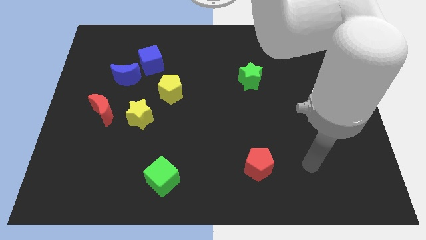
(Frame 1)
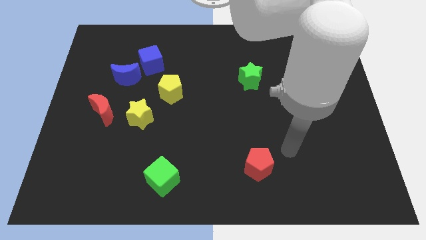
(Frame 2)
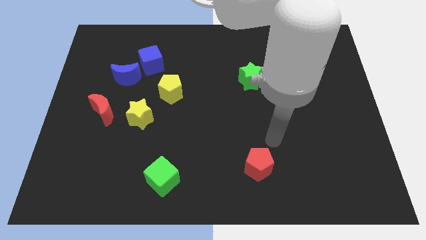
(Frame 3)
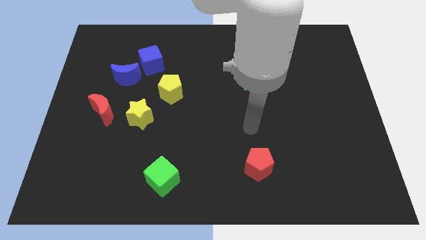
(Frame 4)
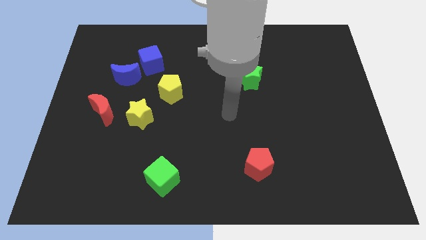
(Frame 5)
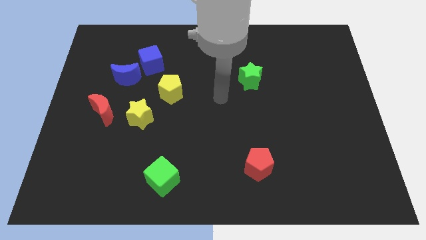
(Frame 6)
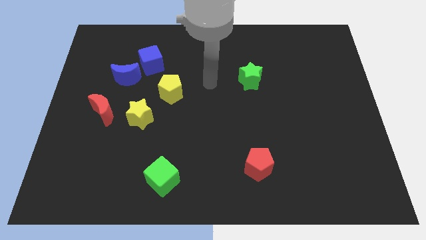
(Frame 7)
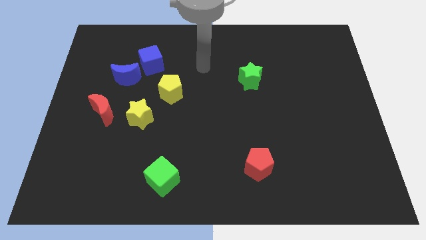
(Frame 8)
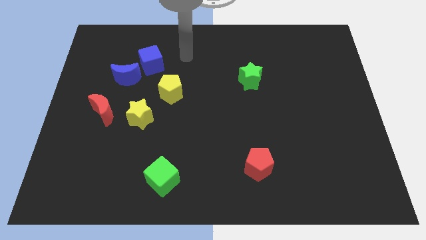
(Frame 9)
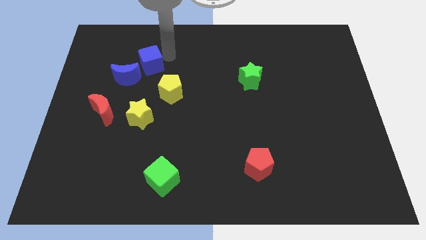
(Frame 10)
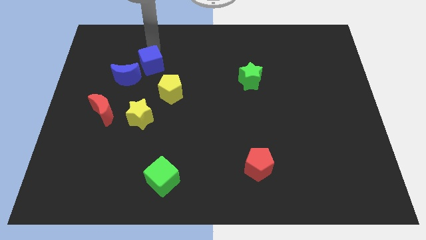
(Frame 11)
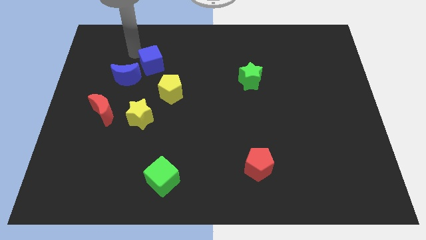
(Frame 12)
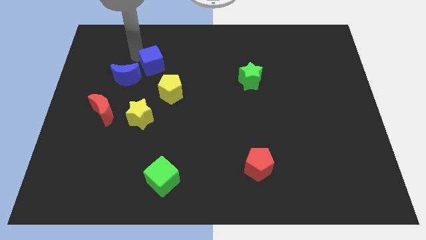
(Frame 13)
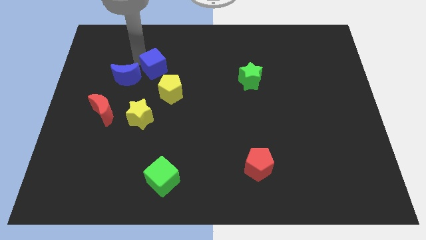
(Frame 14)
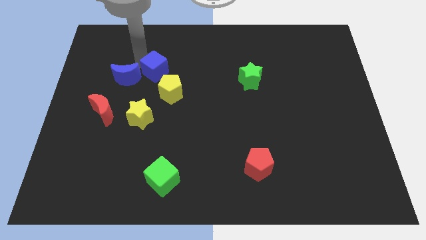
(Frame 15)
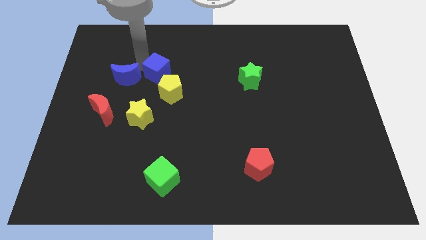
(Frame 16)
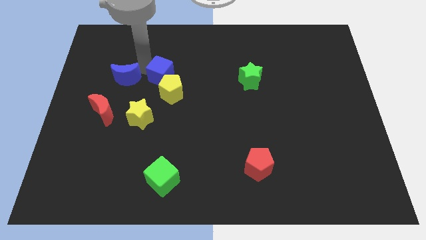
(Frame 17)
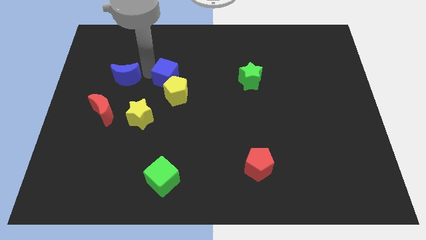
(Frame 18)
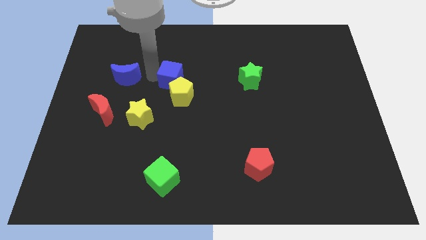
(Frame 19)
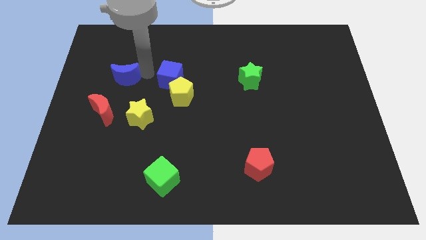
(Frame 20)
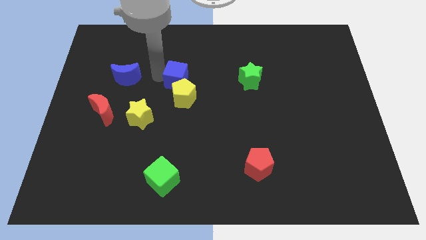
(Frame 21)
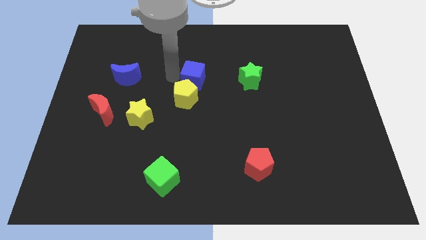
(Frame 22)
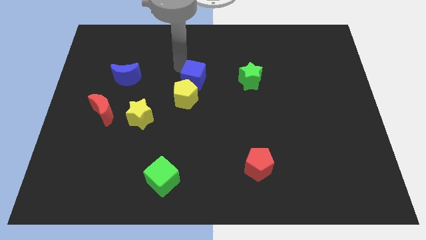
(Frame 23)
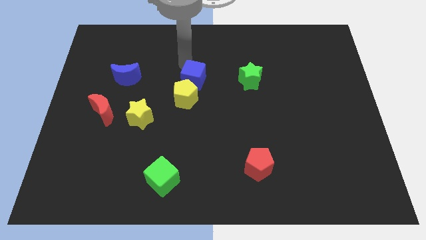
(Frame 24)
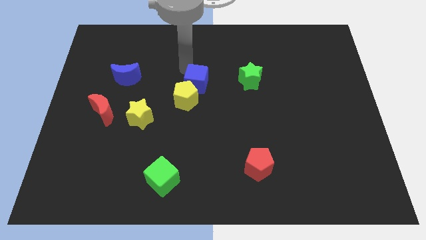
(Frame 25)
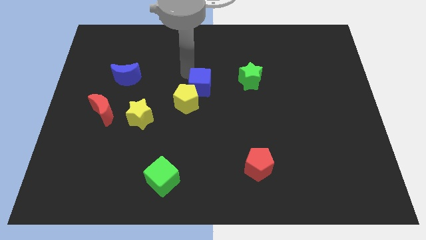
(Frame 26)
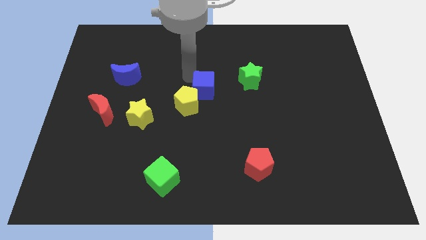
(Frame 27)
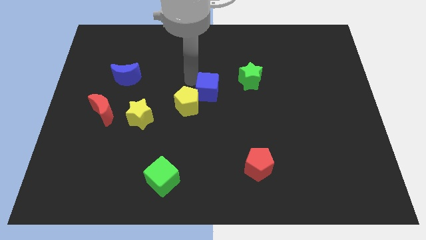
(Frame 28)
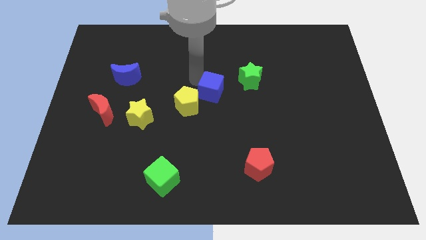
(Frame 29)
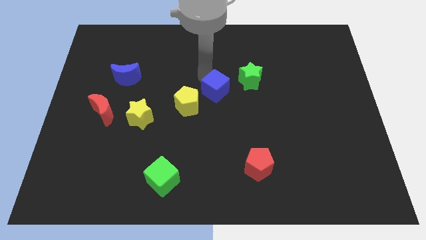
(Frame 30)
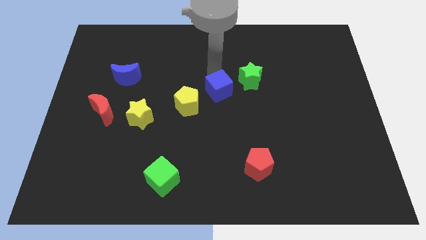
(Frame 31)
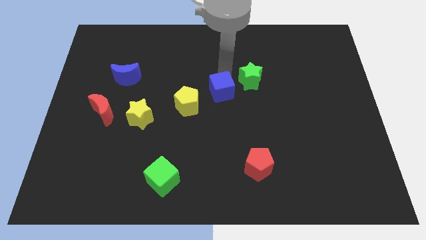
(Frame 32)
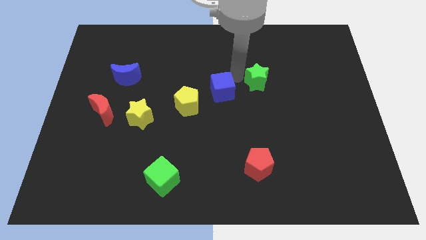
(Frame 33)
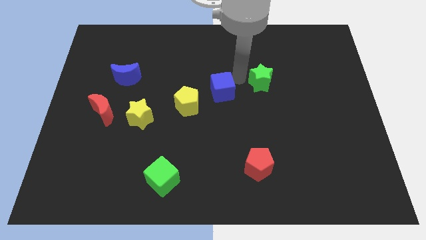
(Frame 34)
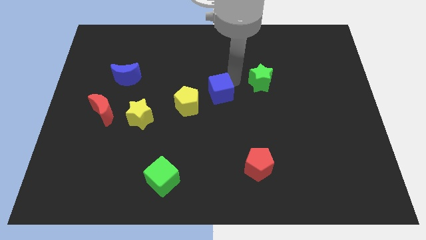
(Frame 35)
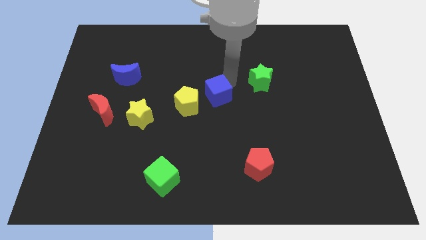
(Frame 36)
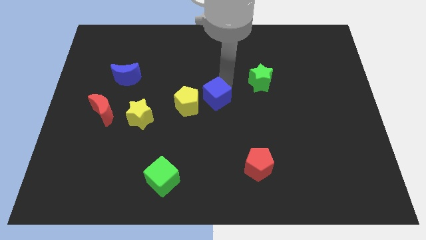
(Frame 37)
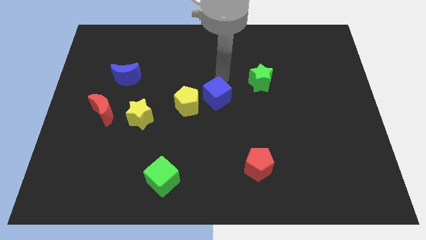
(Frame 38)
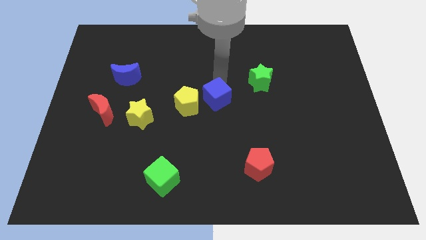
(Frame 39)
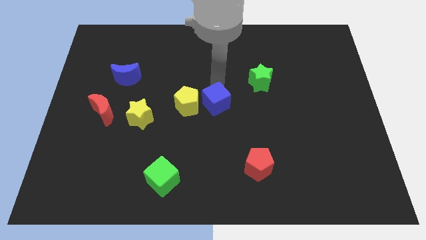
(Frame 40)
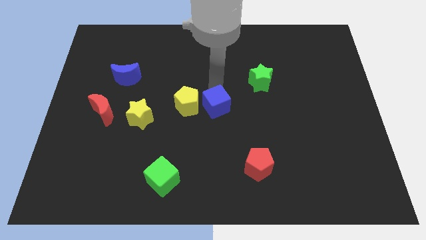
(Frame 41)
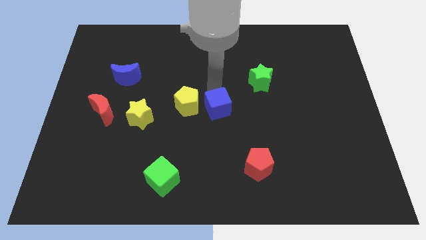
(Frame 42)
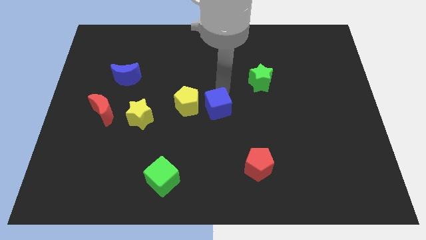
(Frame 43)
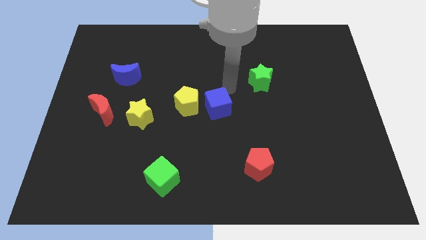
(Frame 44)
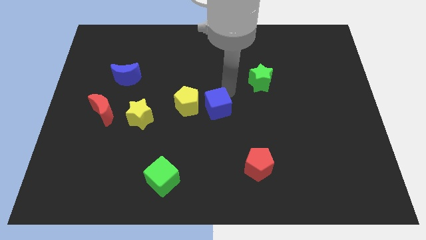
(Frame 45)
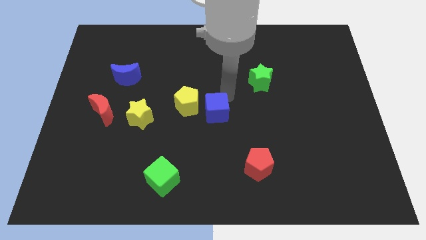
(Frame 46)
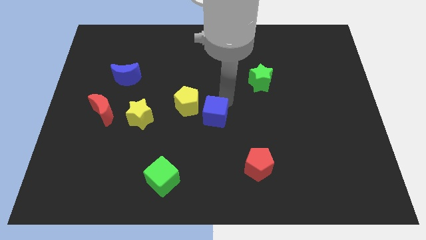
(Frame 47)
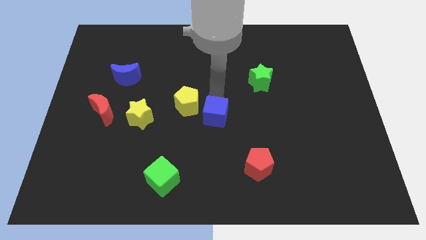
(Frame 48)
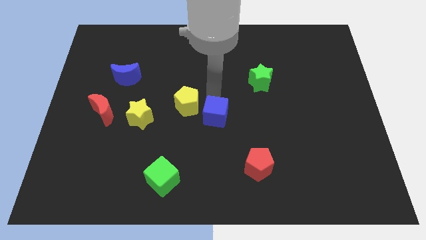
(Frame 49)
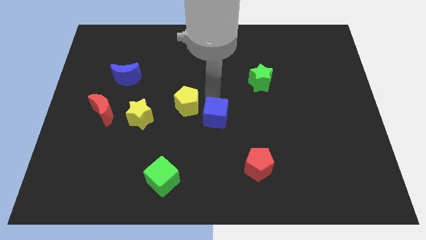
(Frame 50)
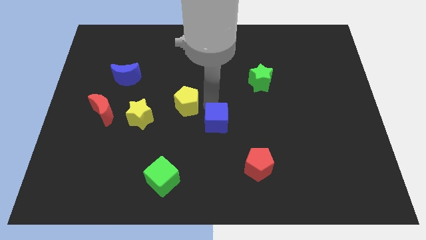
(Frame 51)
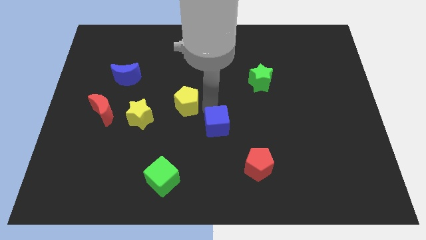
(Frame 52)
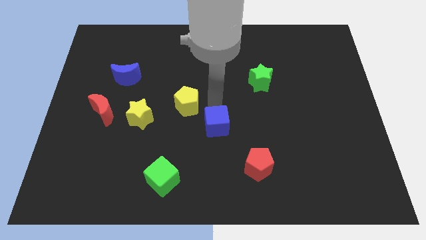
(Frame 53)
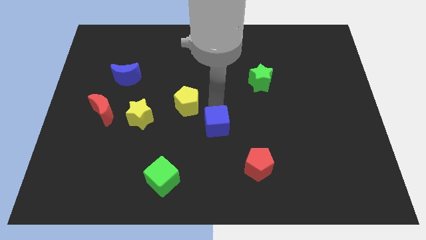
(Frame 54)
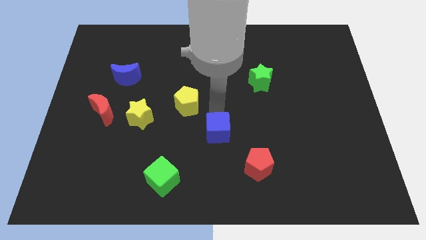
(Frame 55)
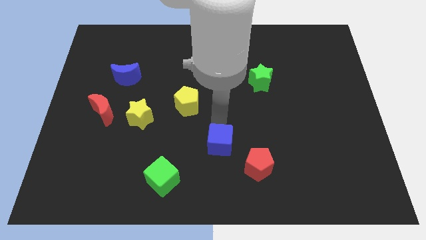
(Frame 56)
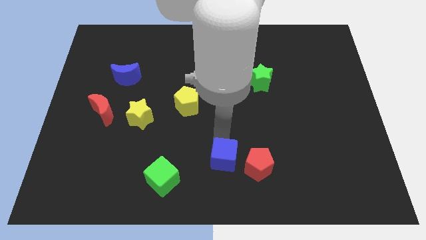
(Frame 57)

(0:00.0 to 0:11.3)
put the blue cube to the bottom side
